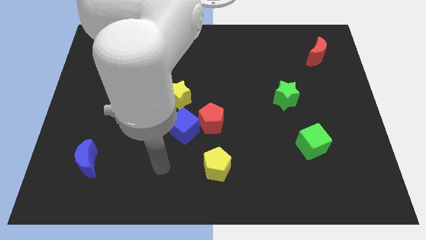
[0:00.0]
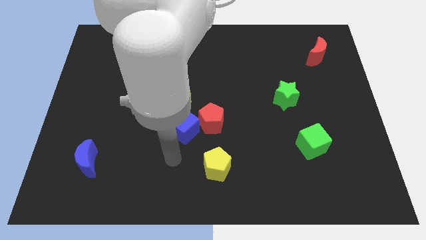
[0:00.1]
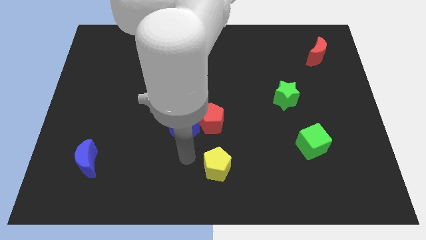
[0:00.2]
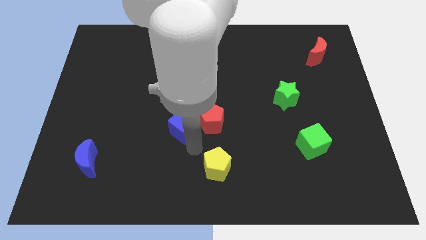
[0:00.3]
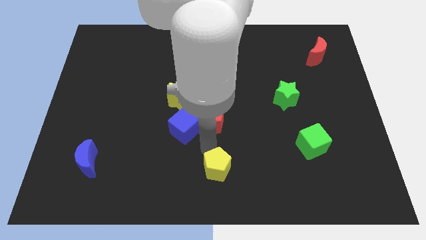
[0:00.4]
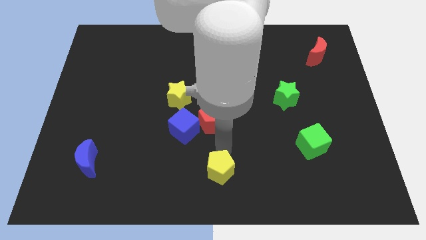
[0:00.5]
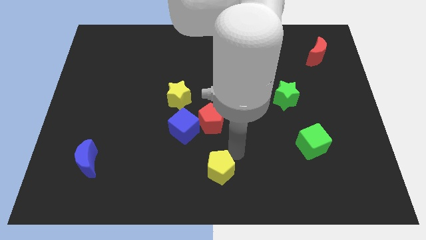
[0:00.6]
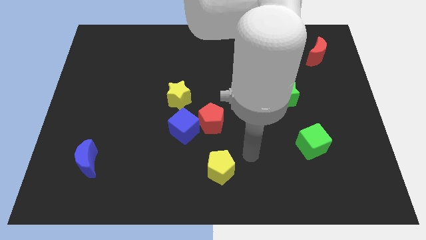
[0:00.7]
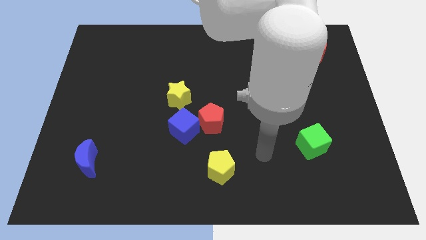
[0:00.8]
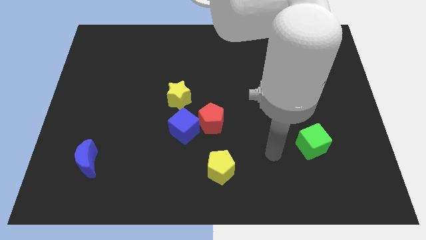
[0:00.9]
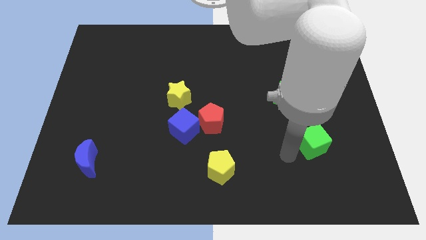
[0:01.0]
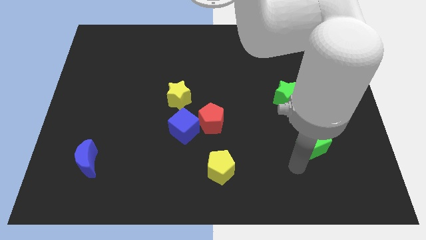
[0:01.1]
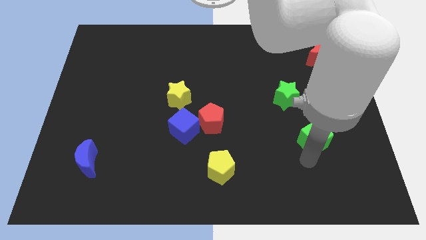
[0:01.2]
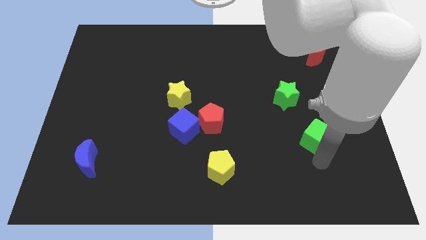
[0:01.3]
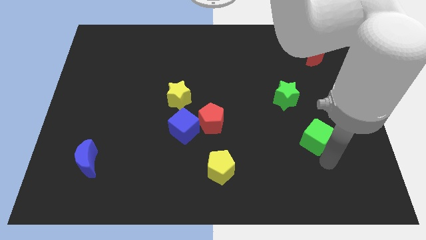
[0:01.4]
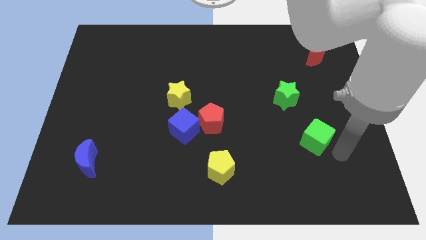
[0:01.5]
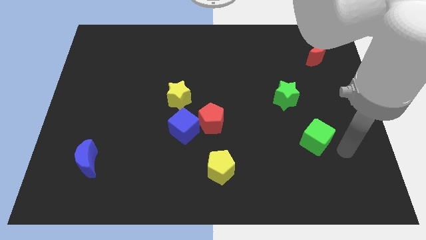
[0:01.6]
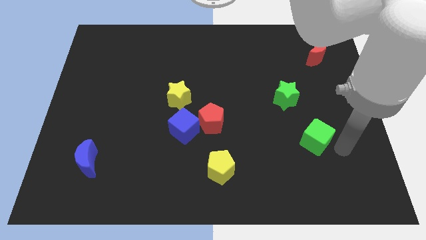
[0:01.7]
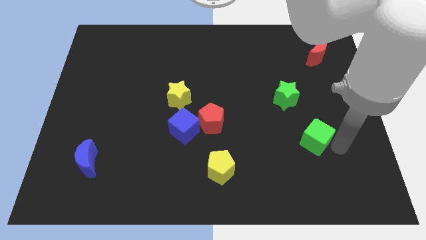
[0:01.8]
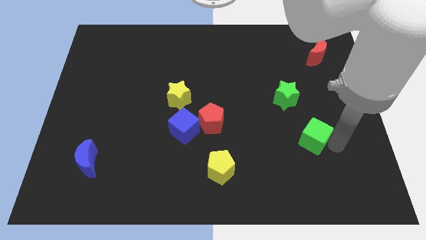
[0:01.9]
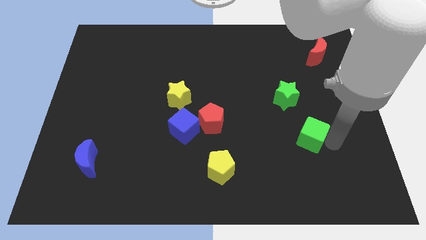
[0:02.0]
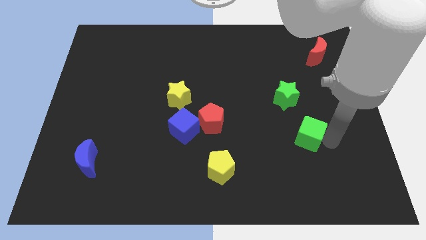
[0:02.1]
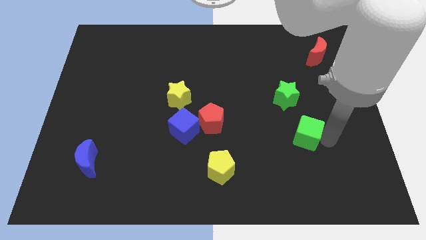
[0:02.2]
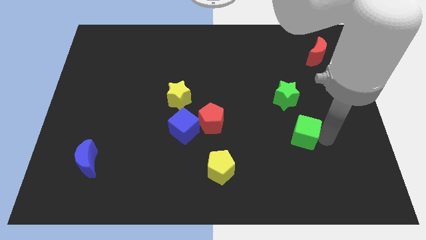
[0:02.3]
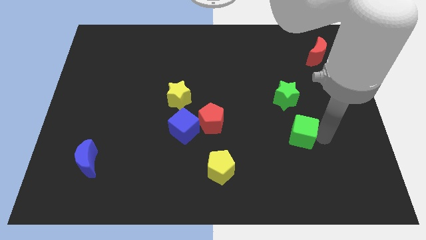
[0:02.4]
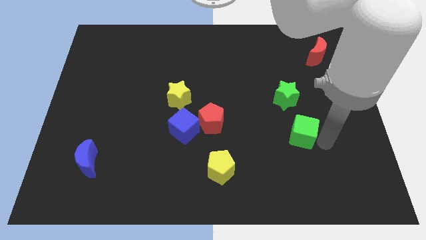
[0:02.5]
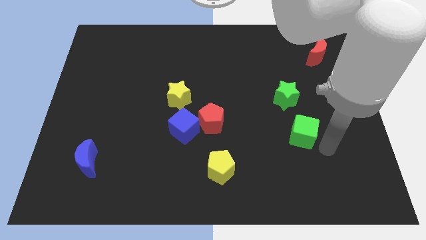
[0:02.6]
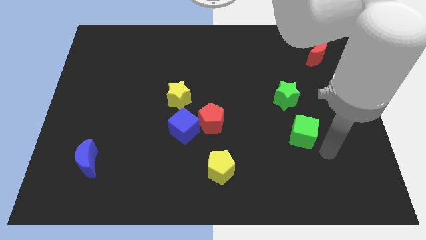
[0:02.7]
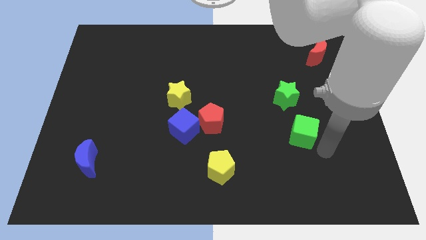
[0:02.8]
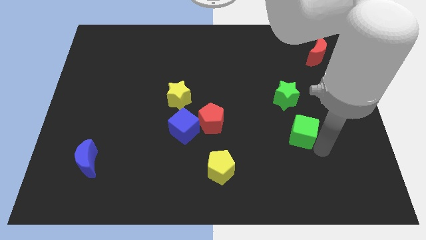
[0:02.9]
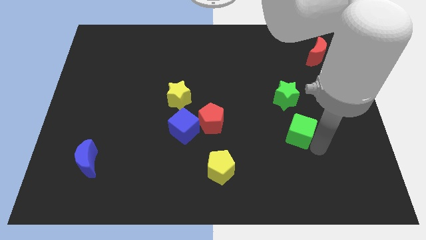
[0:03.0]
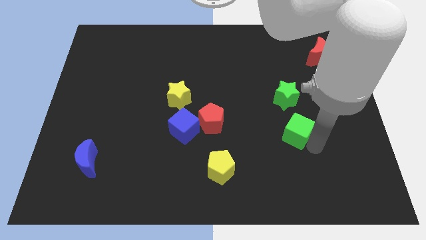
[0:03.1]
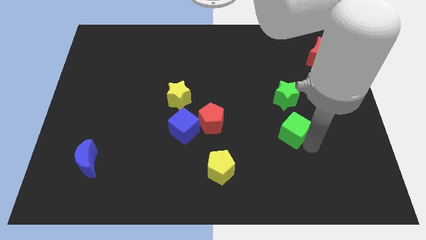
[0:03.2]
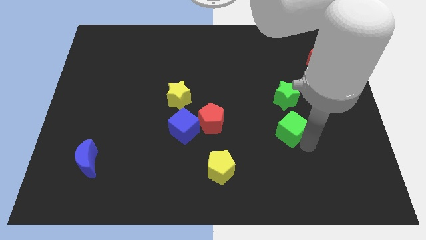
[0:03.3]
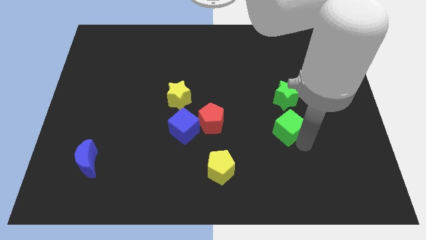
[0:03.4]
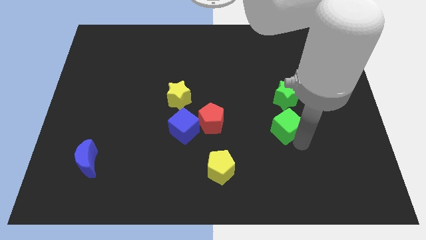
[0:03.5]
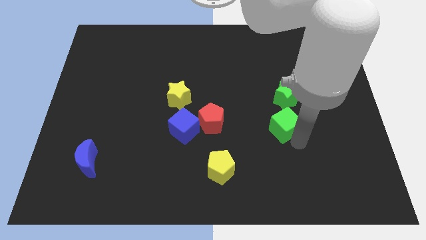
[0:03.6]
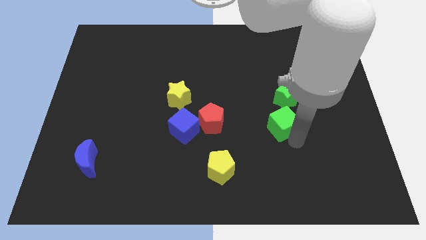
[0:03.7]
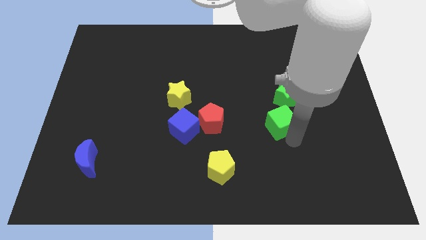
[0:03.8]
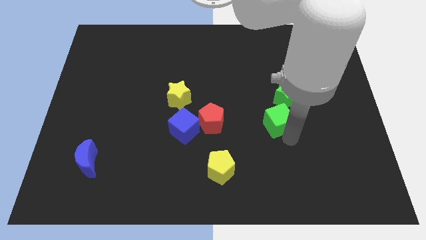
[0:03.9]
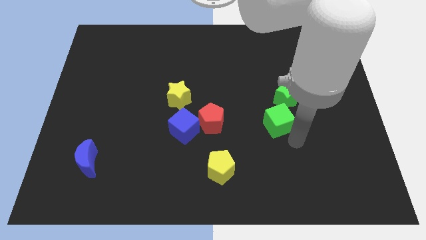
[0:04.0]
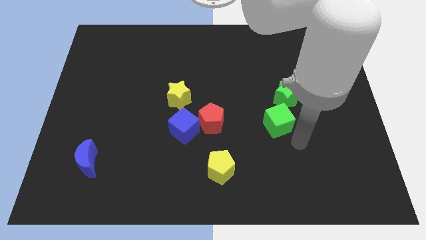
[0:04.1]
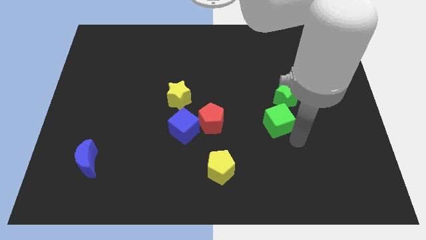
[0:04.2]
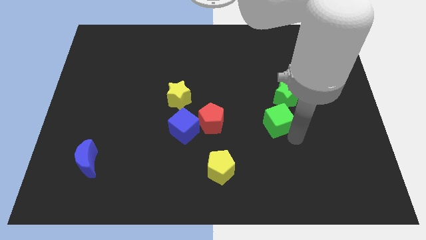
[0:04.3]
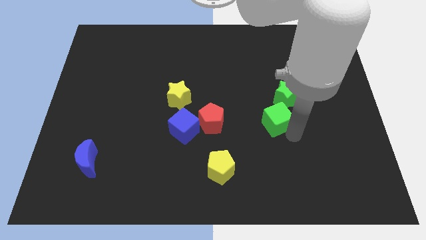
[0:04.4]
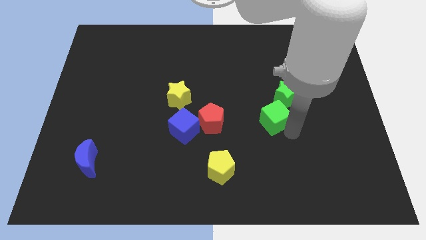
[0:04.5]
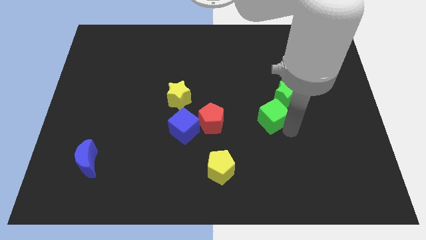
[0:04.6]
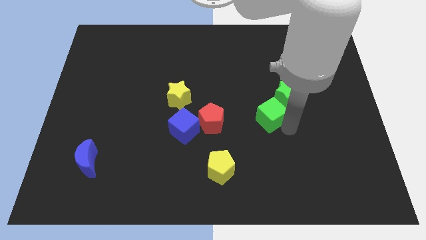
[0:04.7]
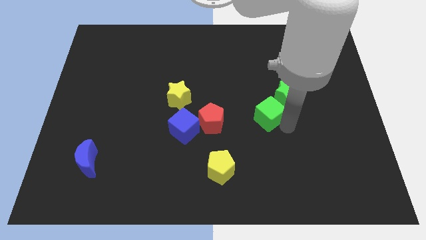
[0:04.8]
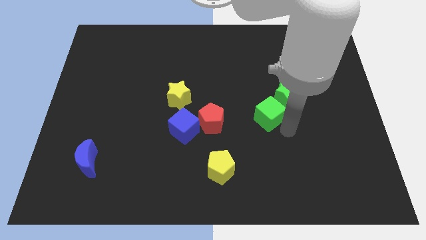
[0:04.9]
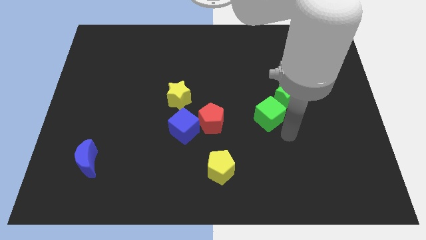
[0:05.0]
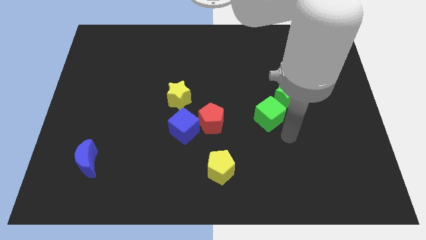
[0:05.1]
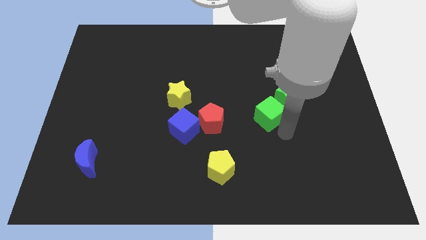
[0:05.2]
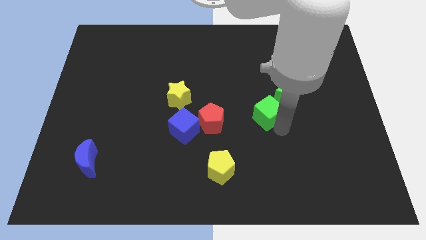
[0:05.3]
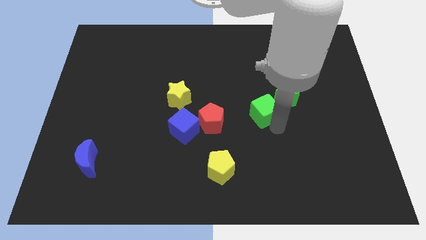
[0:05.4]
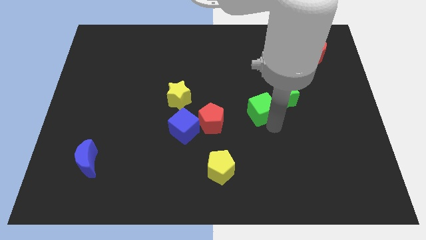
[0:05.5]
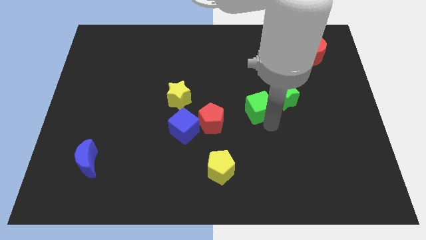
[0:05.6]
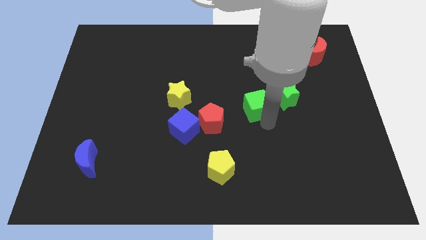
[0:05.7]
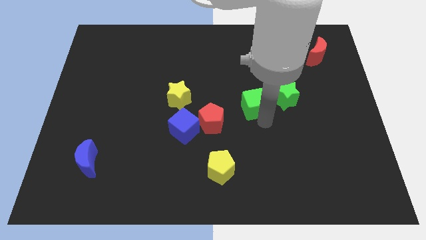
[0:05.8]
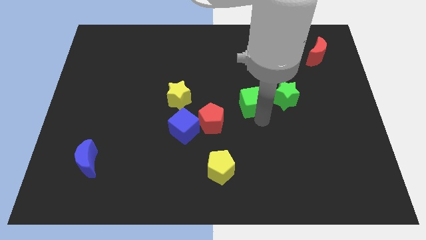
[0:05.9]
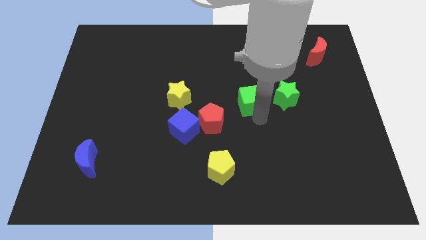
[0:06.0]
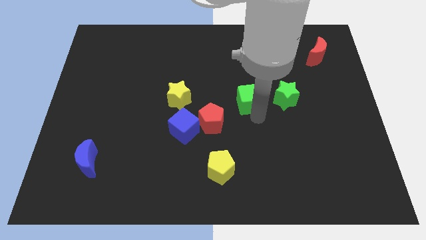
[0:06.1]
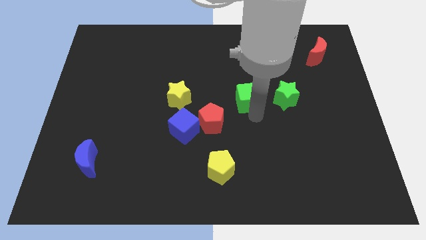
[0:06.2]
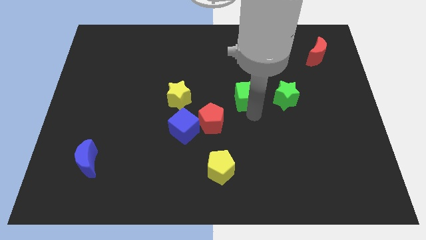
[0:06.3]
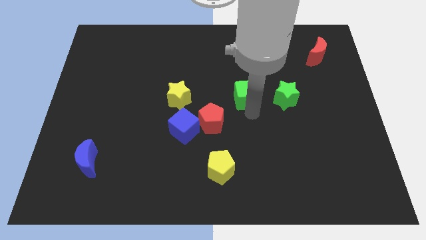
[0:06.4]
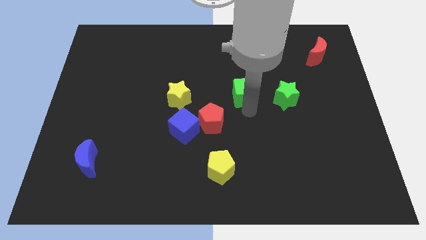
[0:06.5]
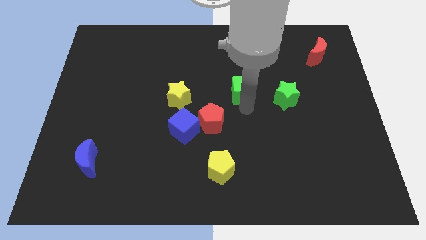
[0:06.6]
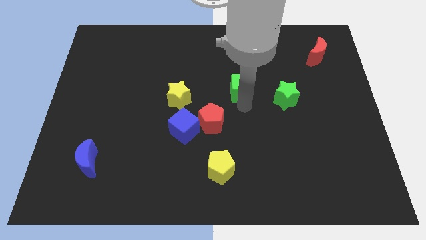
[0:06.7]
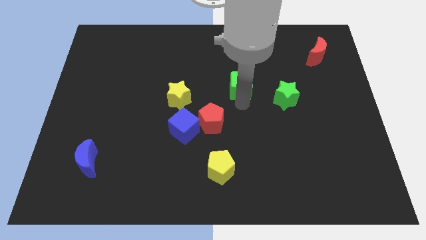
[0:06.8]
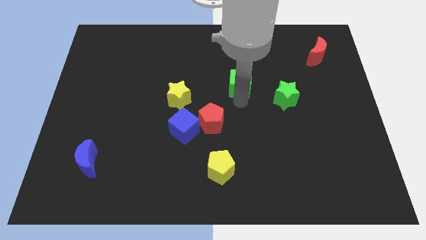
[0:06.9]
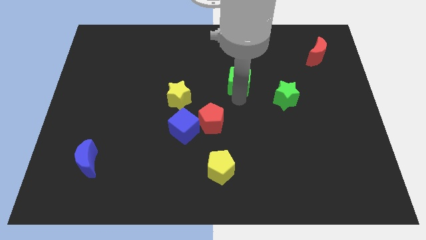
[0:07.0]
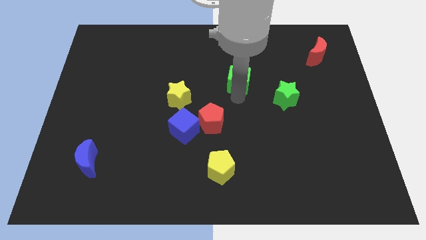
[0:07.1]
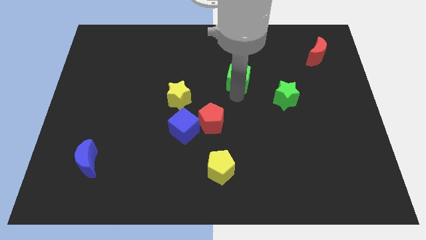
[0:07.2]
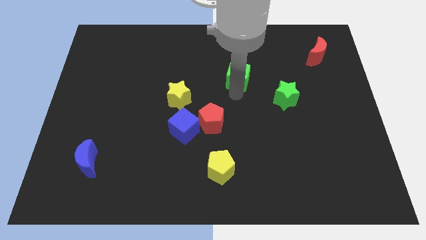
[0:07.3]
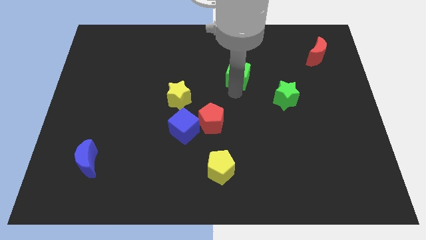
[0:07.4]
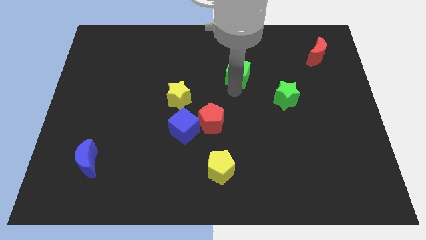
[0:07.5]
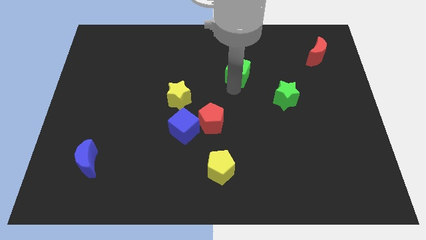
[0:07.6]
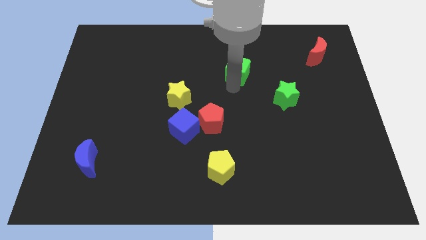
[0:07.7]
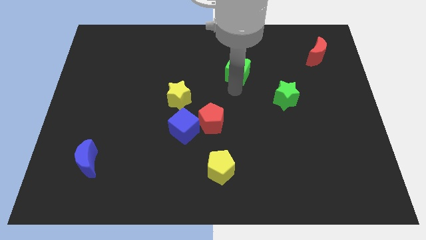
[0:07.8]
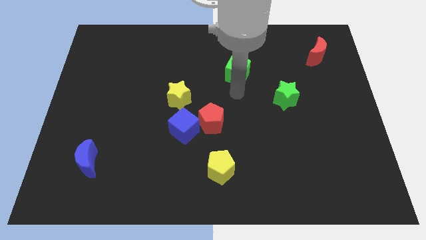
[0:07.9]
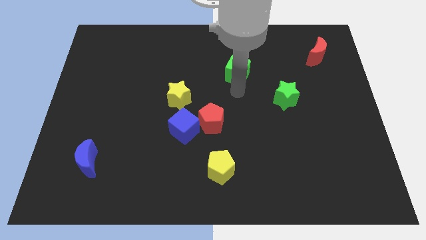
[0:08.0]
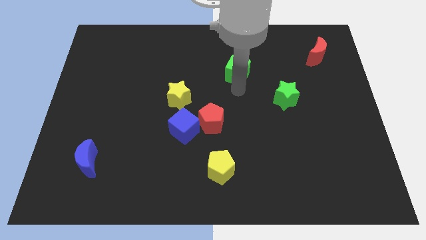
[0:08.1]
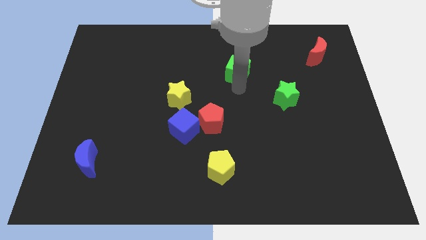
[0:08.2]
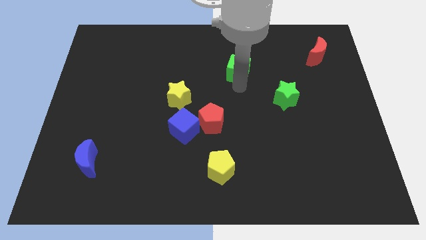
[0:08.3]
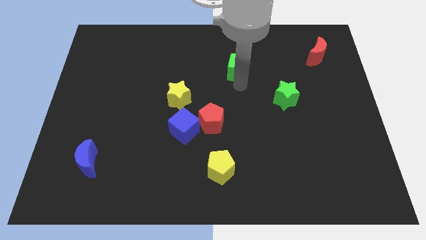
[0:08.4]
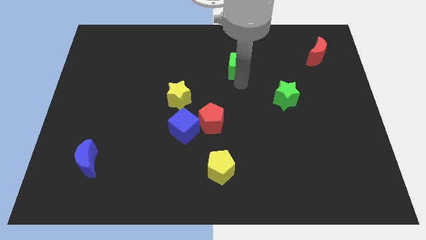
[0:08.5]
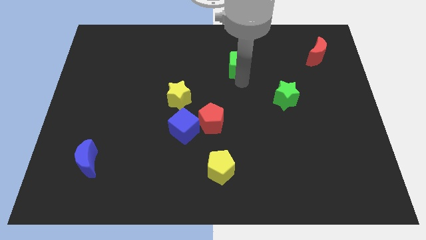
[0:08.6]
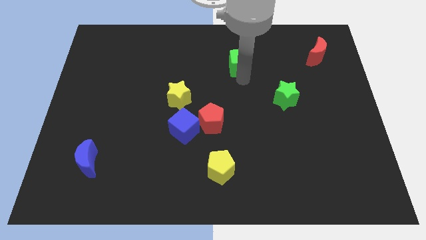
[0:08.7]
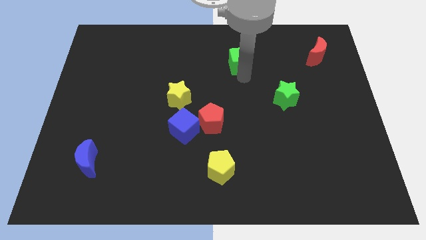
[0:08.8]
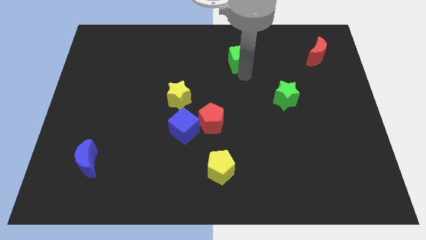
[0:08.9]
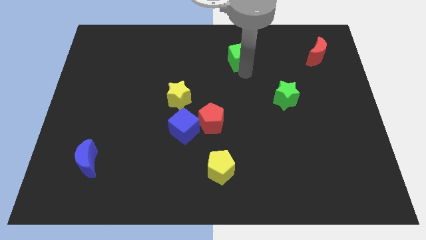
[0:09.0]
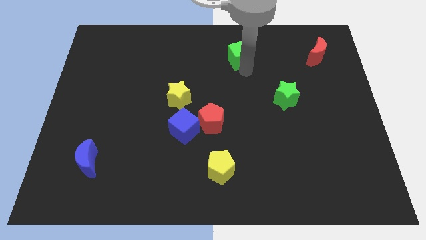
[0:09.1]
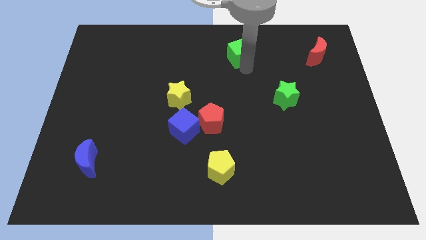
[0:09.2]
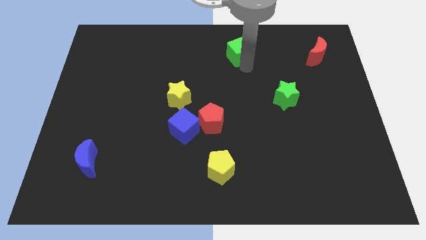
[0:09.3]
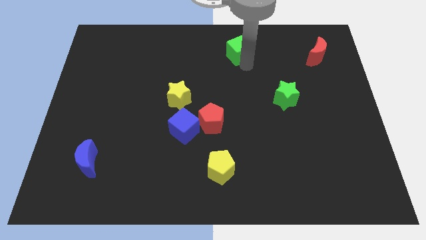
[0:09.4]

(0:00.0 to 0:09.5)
put the green cube to the towards your base
